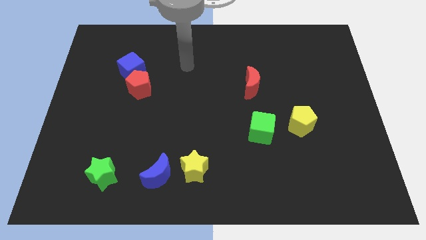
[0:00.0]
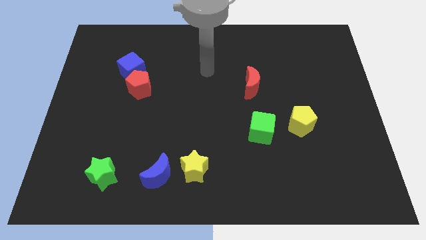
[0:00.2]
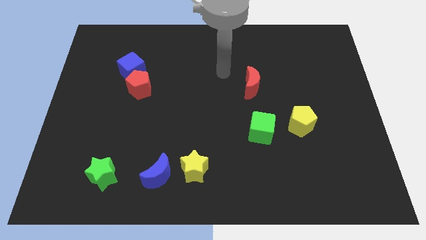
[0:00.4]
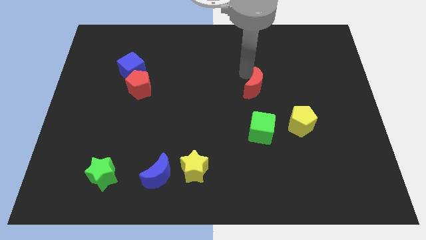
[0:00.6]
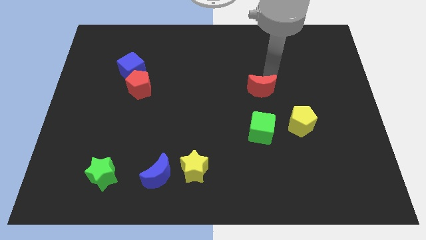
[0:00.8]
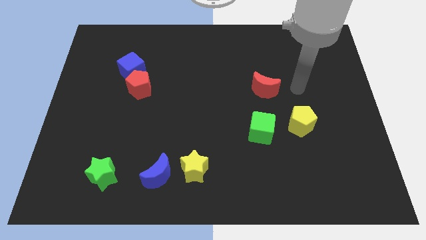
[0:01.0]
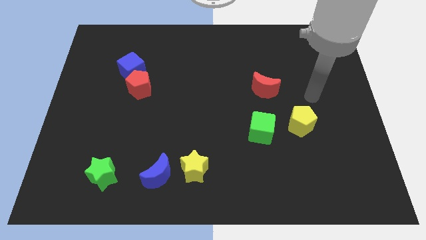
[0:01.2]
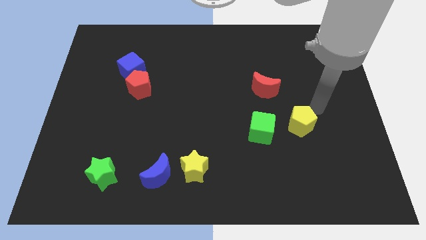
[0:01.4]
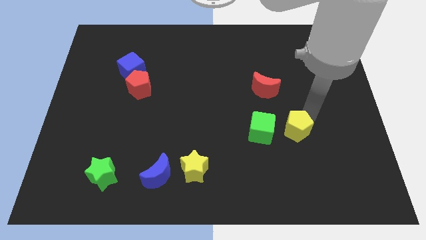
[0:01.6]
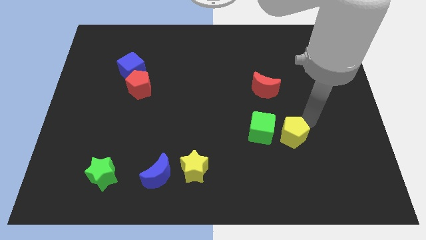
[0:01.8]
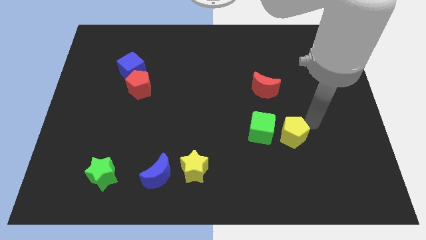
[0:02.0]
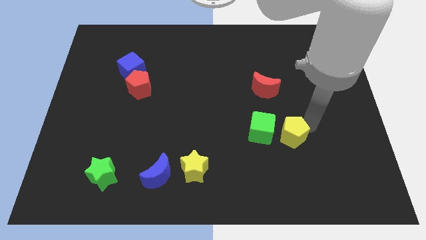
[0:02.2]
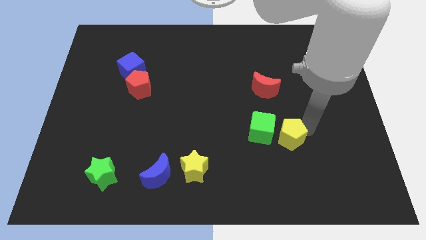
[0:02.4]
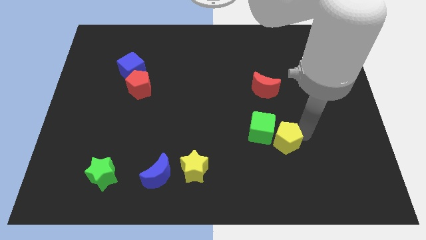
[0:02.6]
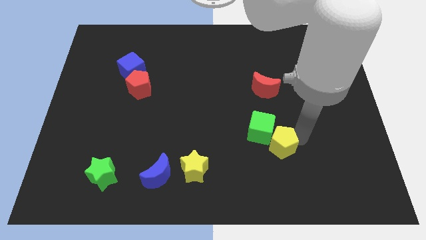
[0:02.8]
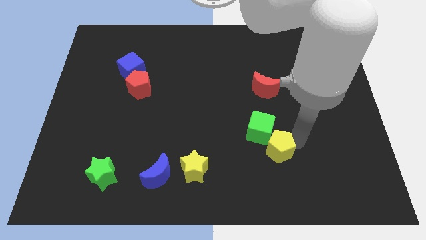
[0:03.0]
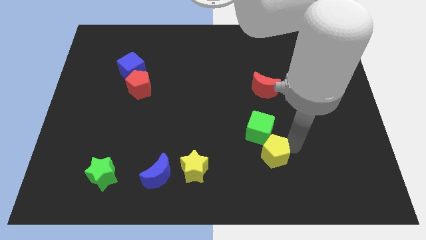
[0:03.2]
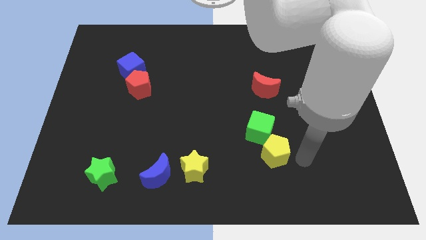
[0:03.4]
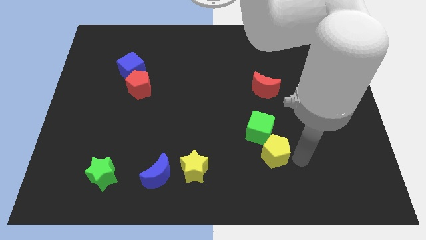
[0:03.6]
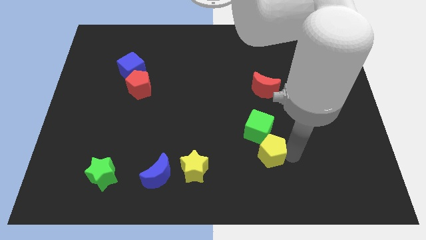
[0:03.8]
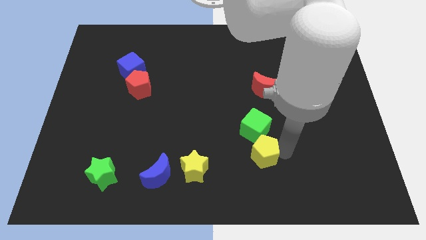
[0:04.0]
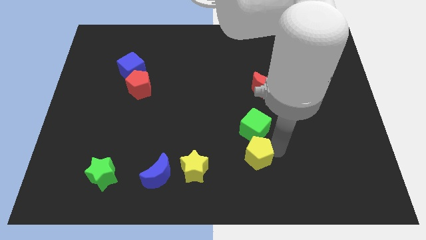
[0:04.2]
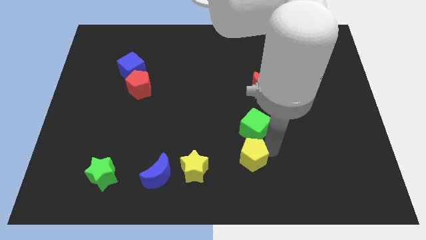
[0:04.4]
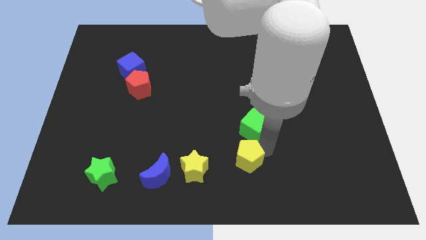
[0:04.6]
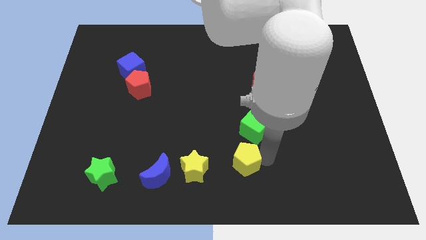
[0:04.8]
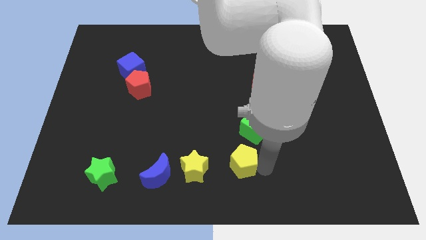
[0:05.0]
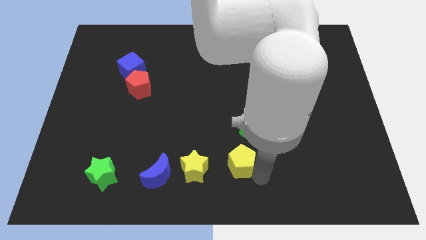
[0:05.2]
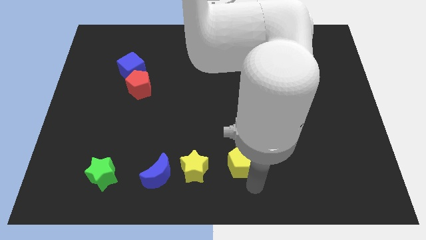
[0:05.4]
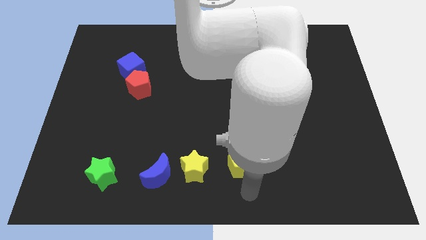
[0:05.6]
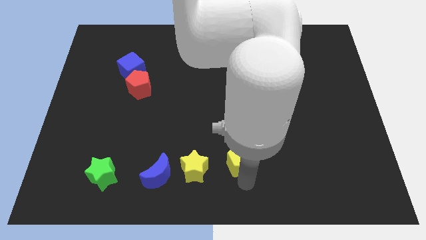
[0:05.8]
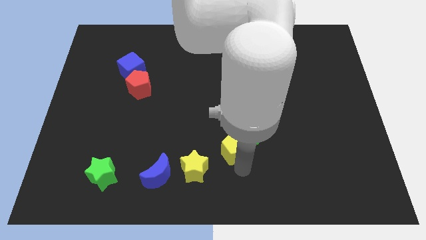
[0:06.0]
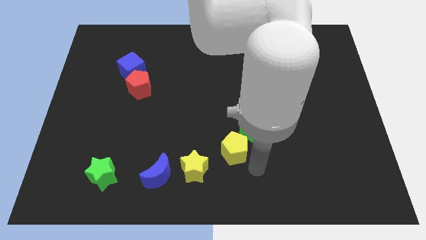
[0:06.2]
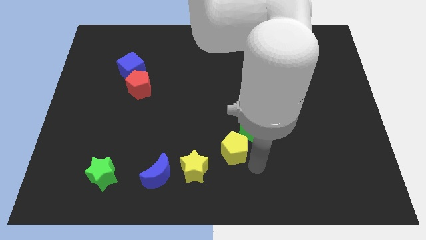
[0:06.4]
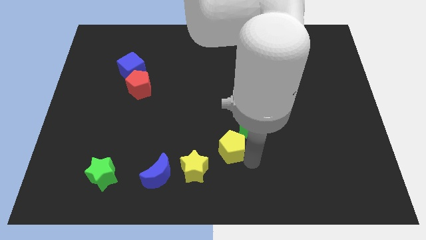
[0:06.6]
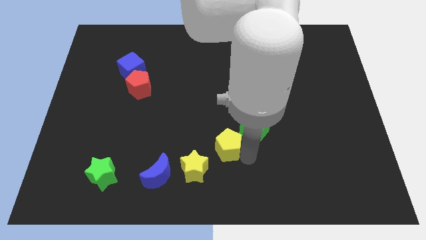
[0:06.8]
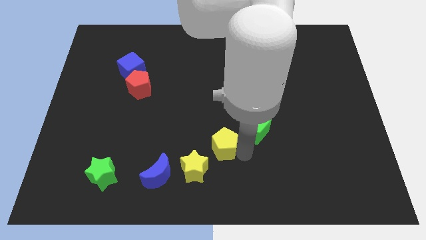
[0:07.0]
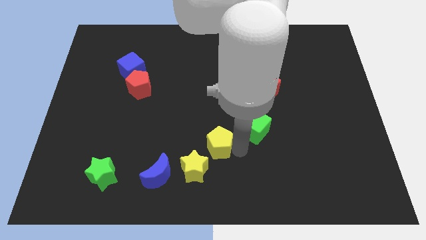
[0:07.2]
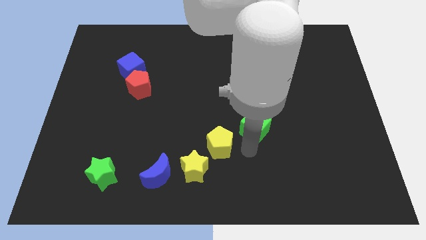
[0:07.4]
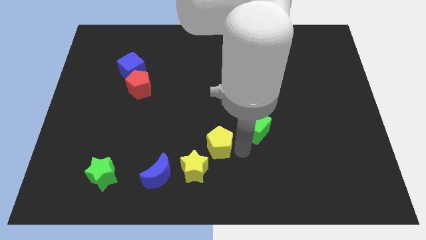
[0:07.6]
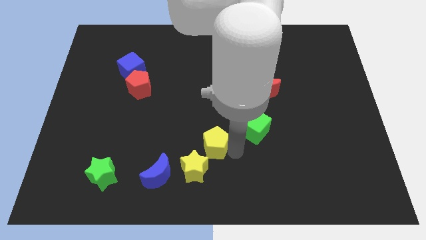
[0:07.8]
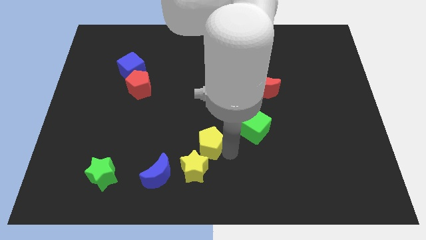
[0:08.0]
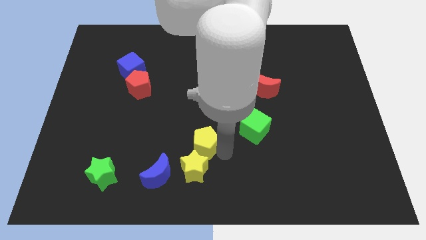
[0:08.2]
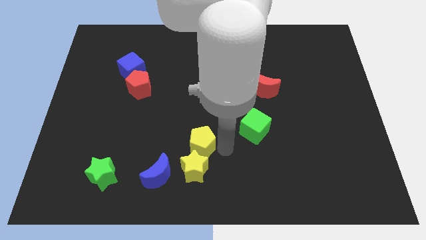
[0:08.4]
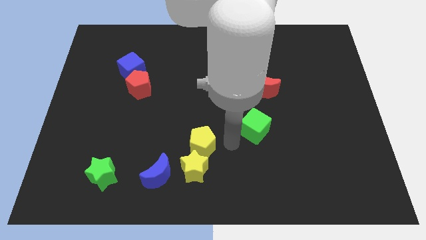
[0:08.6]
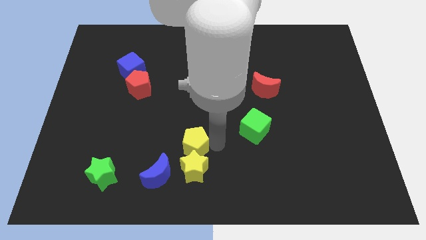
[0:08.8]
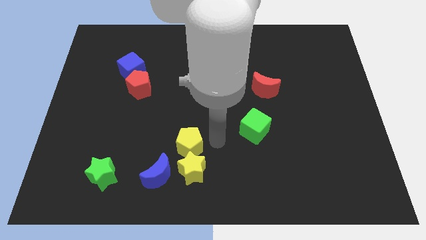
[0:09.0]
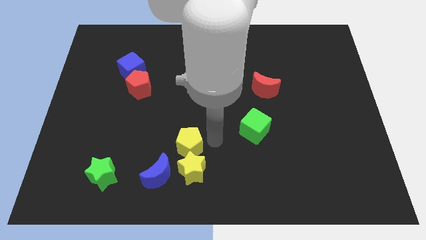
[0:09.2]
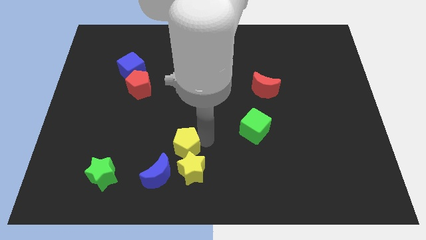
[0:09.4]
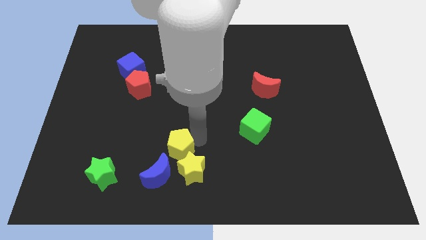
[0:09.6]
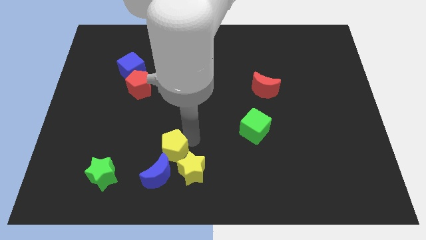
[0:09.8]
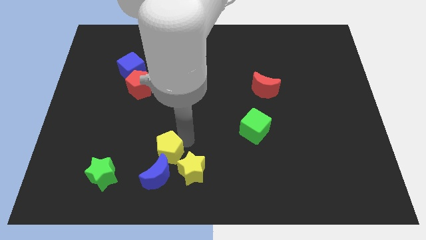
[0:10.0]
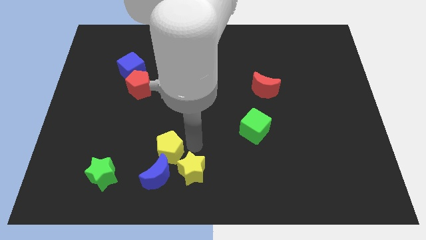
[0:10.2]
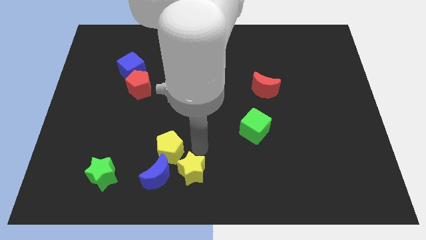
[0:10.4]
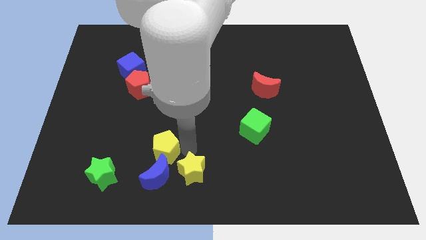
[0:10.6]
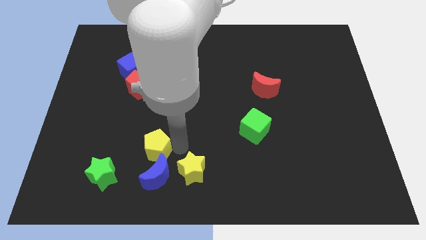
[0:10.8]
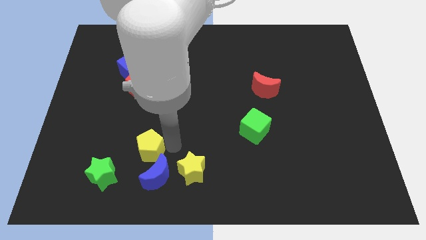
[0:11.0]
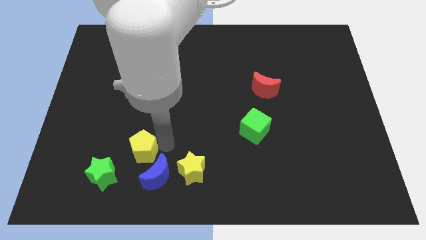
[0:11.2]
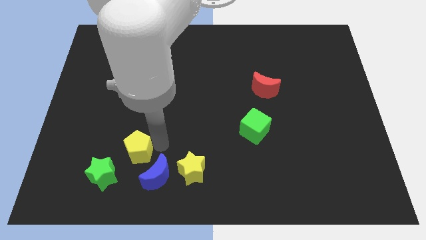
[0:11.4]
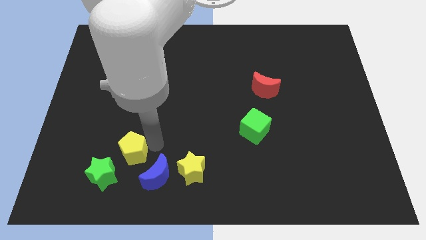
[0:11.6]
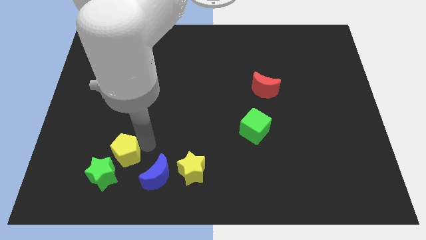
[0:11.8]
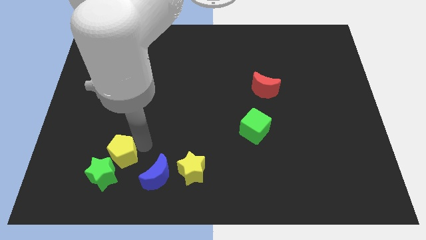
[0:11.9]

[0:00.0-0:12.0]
slide the yellow pentagon close to the green star

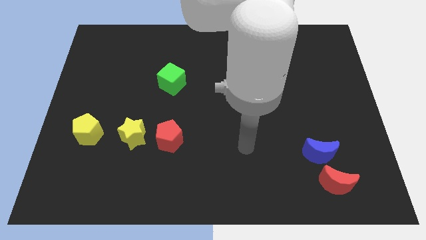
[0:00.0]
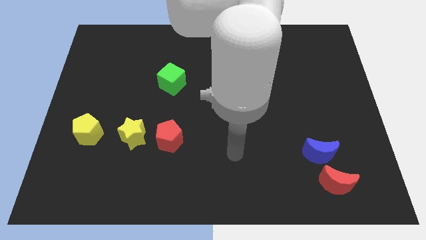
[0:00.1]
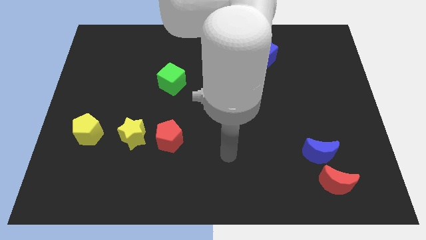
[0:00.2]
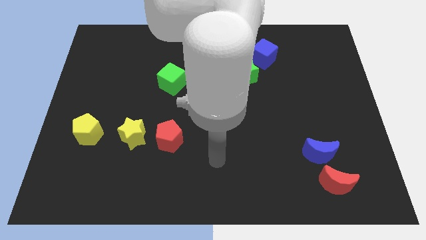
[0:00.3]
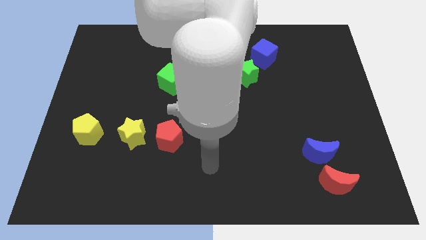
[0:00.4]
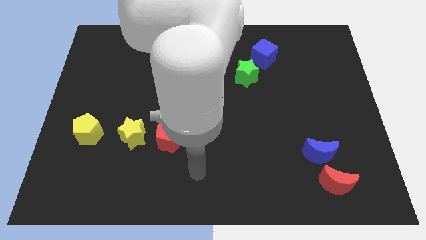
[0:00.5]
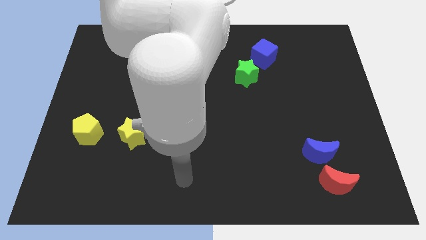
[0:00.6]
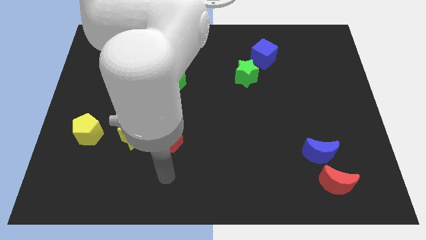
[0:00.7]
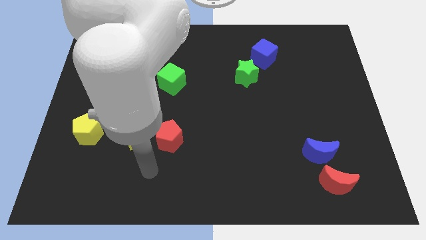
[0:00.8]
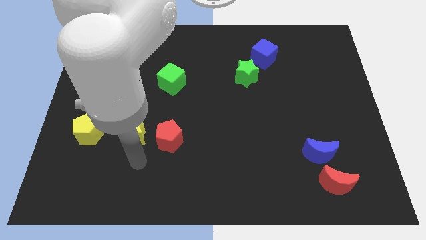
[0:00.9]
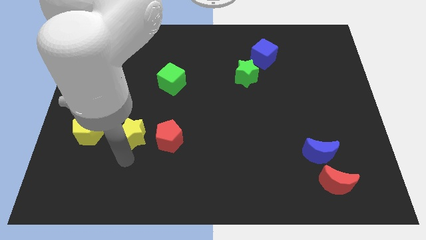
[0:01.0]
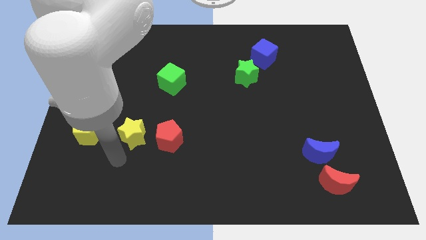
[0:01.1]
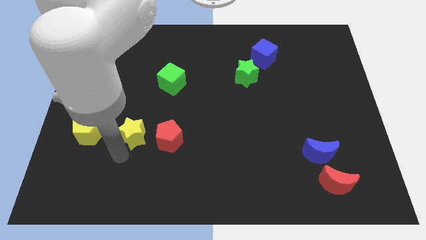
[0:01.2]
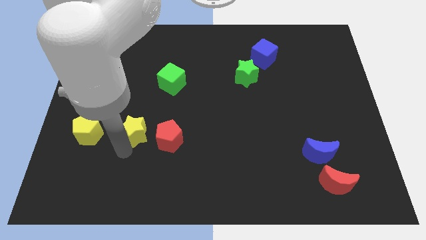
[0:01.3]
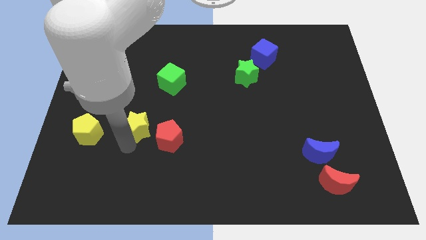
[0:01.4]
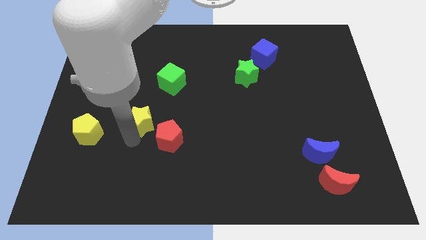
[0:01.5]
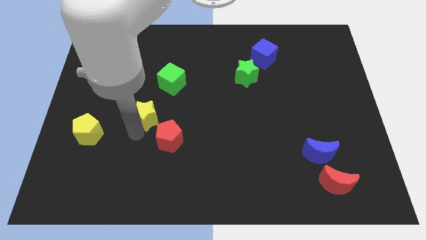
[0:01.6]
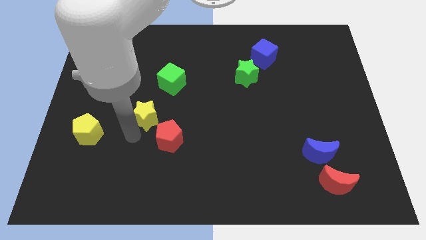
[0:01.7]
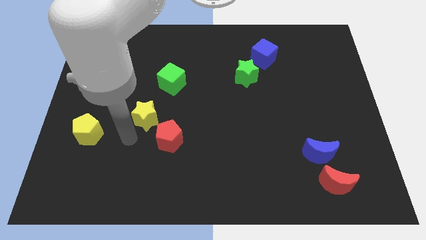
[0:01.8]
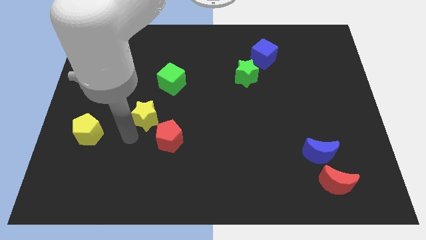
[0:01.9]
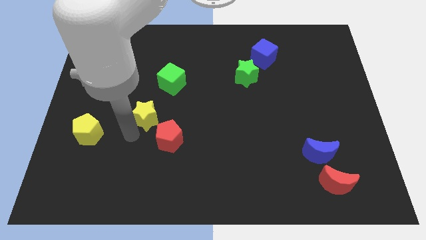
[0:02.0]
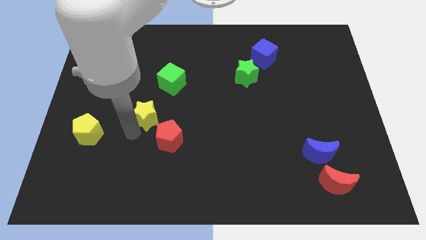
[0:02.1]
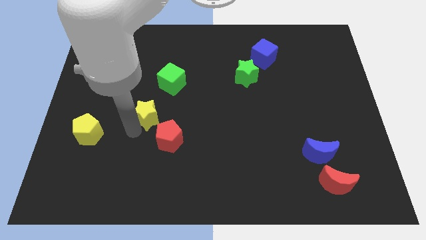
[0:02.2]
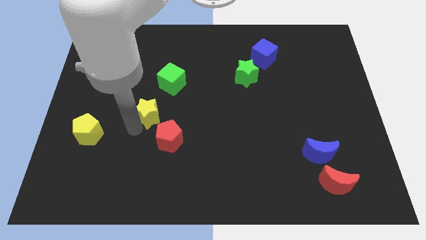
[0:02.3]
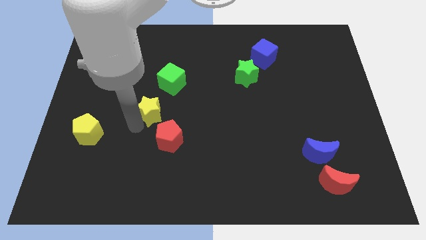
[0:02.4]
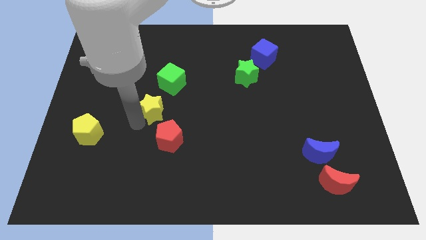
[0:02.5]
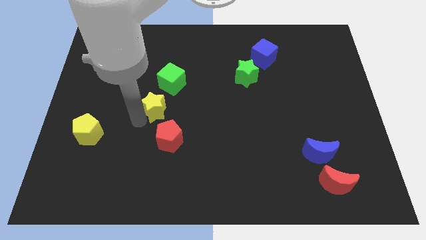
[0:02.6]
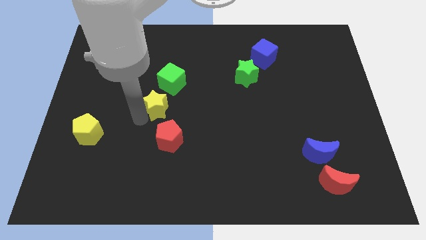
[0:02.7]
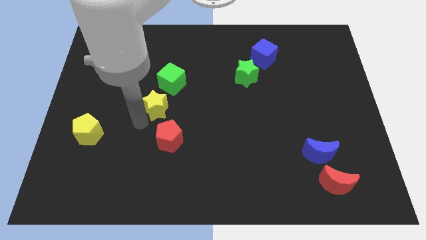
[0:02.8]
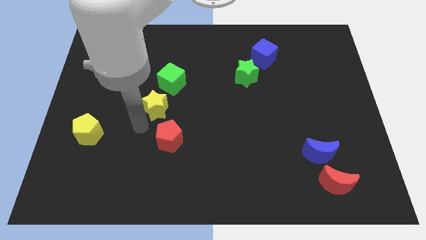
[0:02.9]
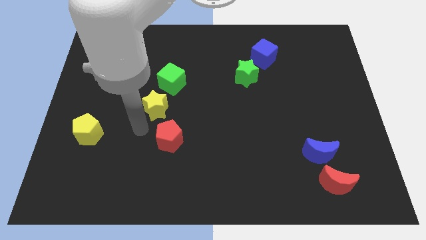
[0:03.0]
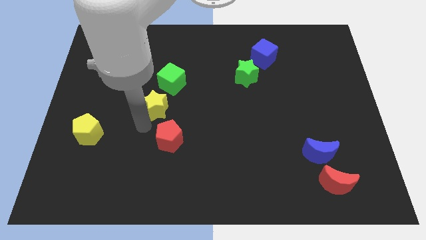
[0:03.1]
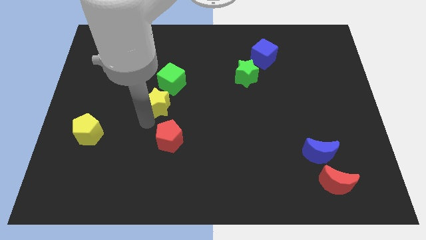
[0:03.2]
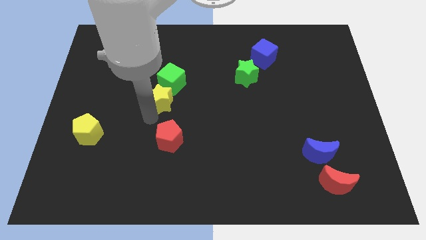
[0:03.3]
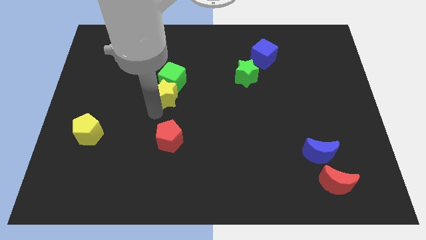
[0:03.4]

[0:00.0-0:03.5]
put the yellow star next to the green cube
